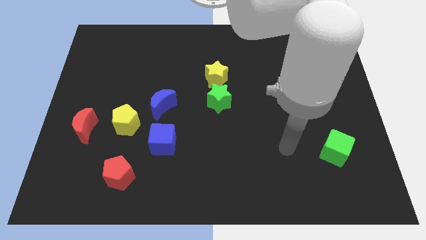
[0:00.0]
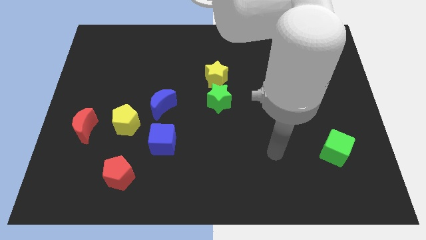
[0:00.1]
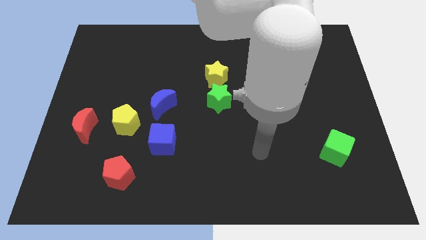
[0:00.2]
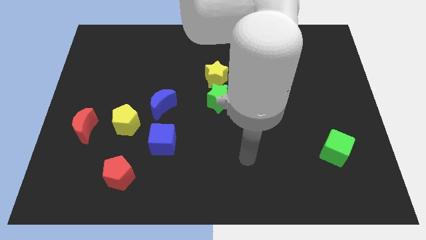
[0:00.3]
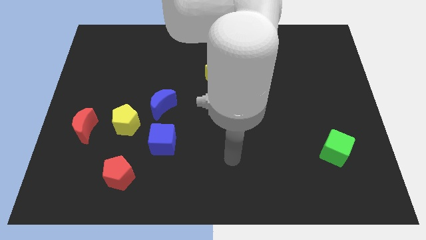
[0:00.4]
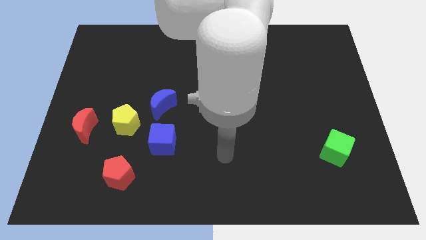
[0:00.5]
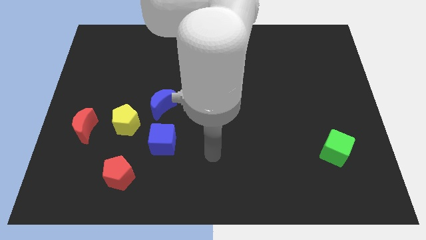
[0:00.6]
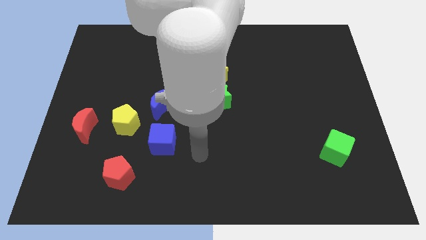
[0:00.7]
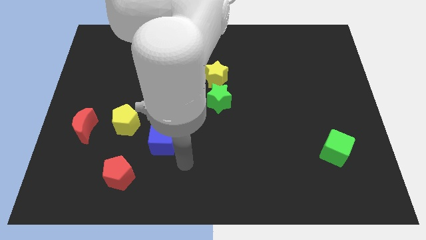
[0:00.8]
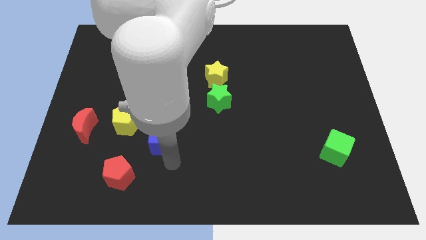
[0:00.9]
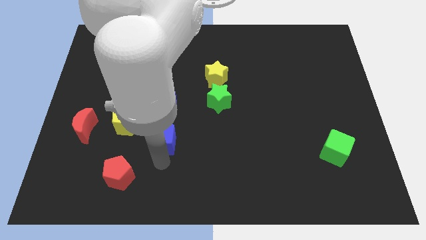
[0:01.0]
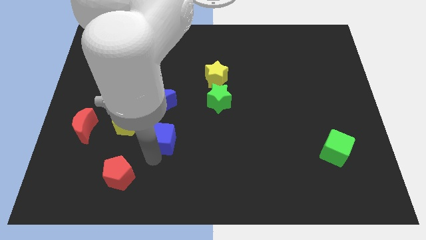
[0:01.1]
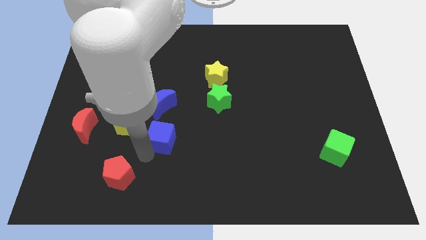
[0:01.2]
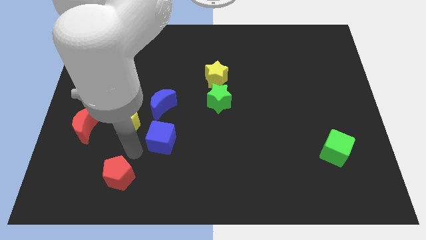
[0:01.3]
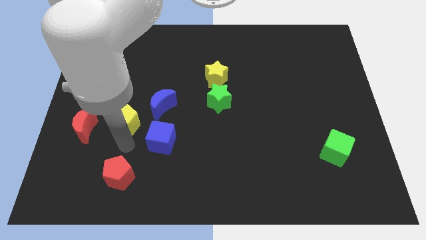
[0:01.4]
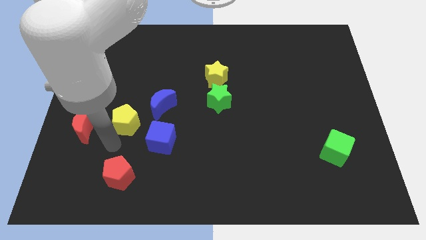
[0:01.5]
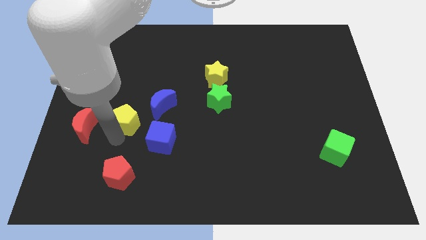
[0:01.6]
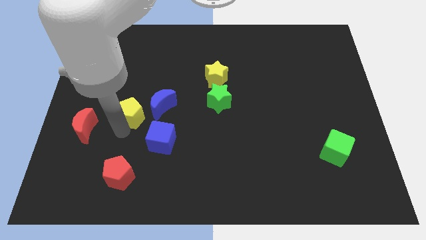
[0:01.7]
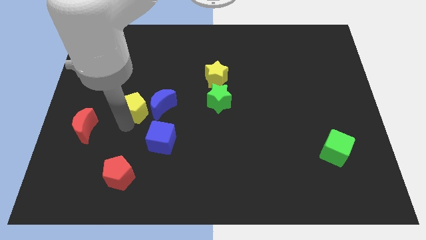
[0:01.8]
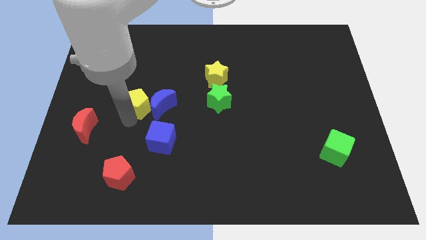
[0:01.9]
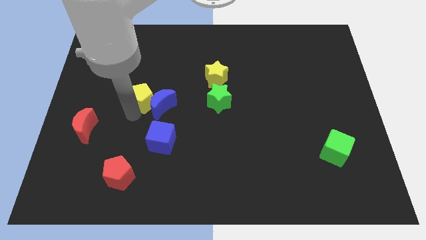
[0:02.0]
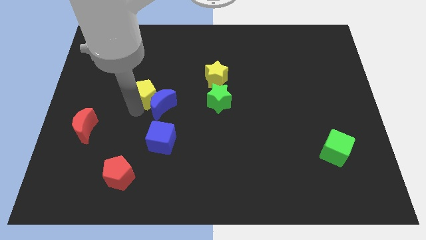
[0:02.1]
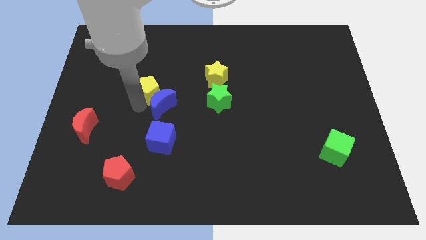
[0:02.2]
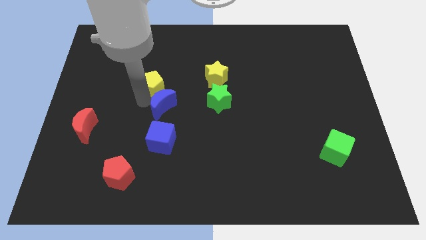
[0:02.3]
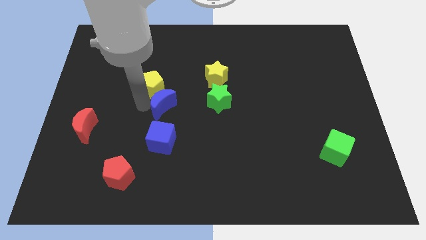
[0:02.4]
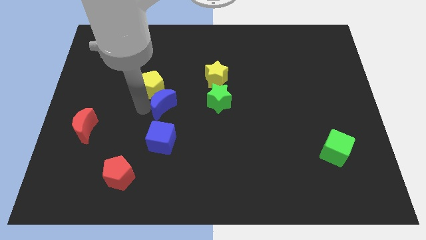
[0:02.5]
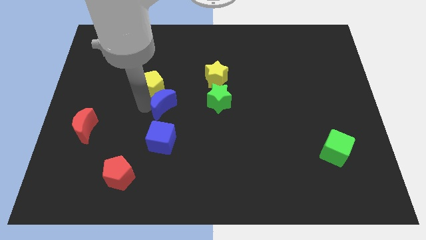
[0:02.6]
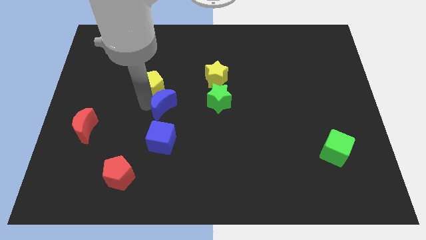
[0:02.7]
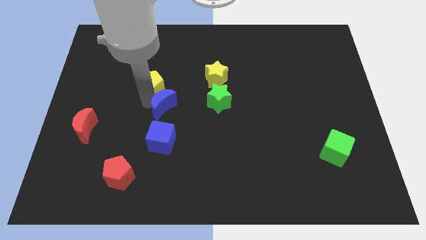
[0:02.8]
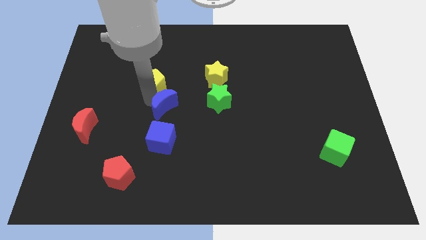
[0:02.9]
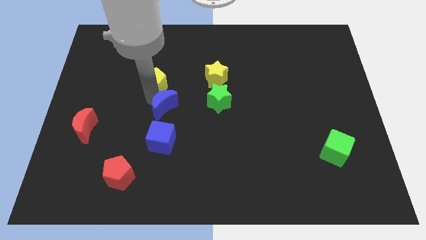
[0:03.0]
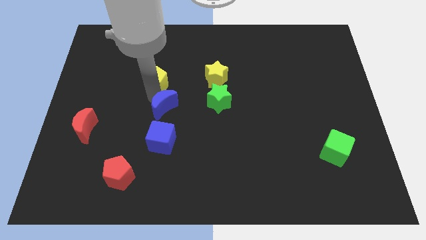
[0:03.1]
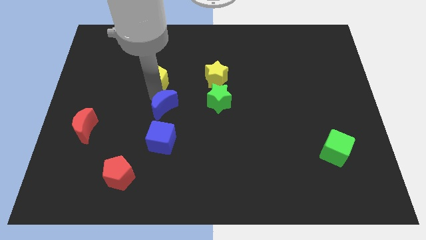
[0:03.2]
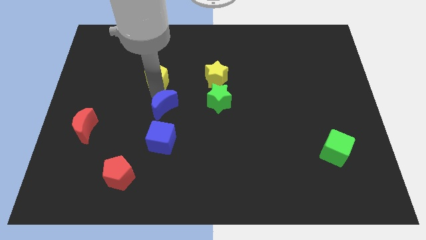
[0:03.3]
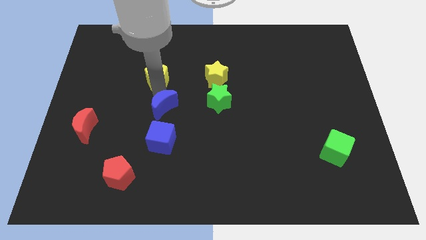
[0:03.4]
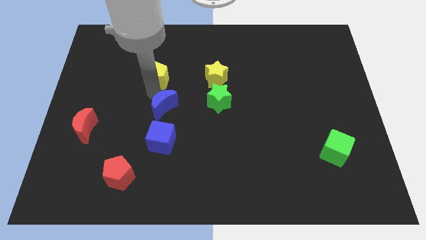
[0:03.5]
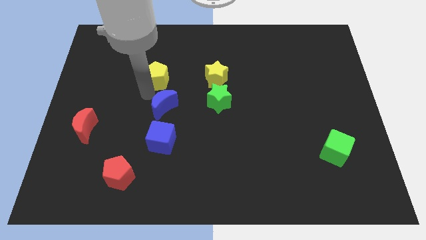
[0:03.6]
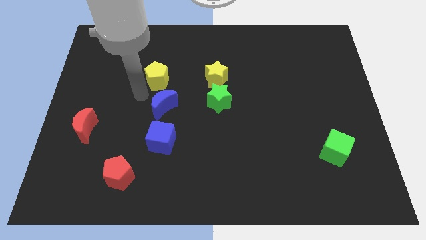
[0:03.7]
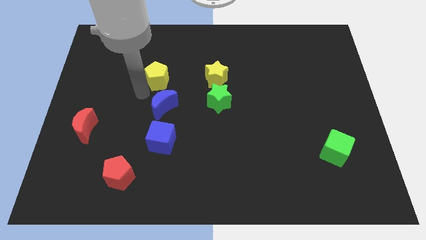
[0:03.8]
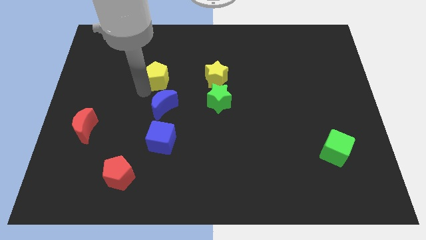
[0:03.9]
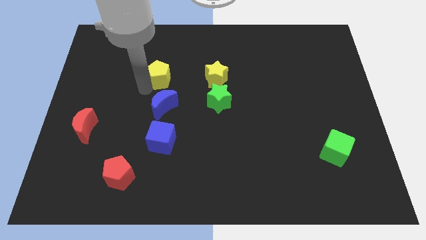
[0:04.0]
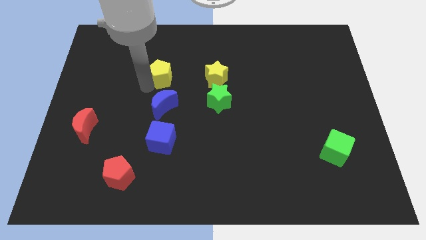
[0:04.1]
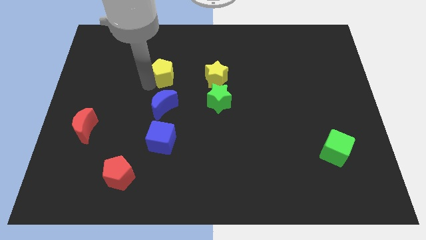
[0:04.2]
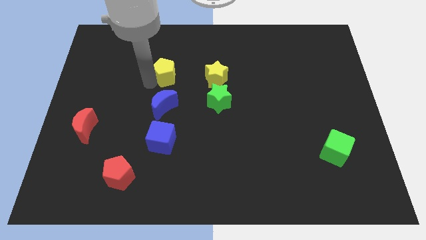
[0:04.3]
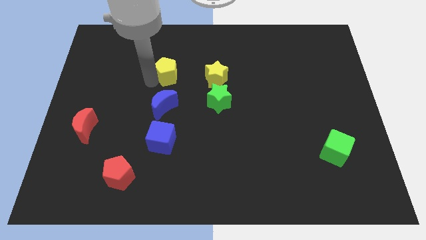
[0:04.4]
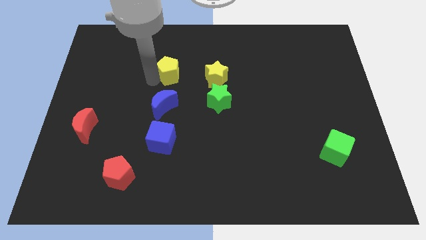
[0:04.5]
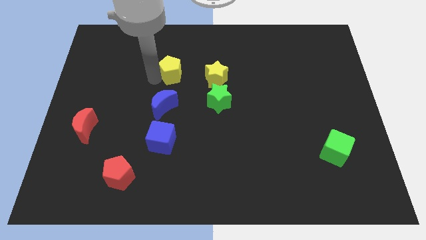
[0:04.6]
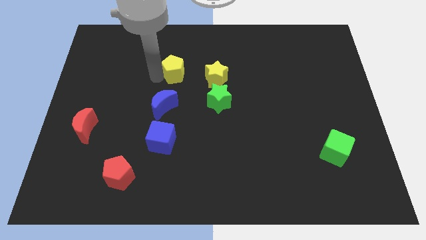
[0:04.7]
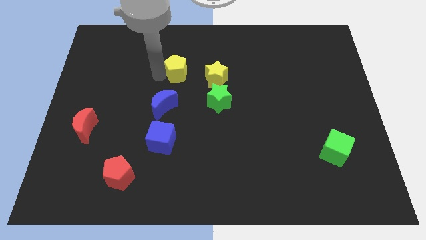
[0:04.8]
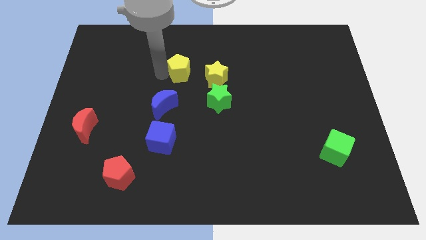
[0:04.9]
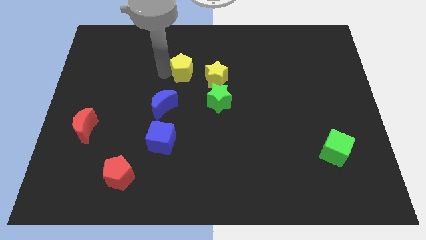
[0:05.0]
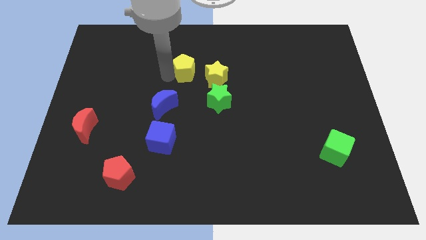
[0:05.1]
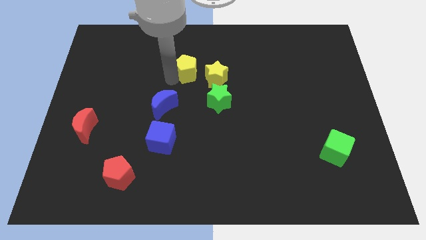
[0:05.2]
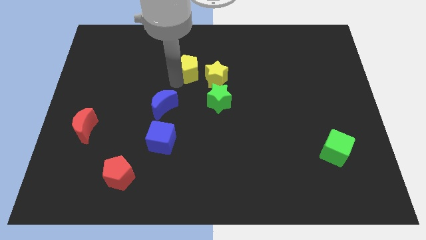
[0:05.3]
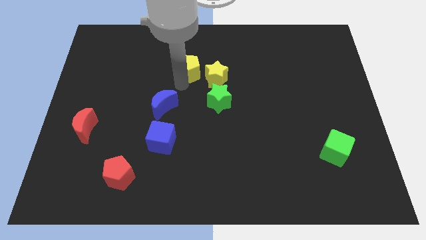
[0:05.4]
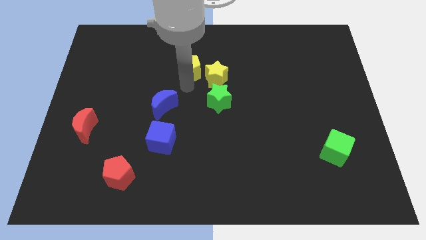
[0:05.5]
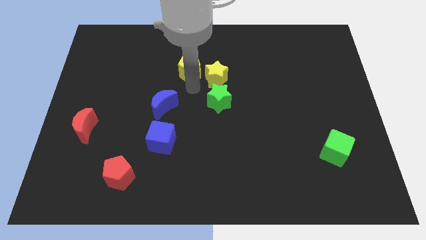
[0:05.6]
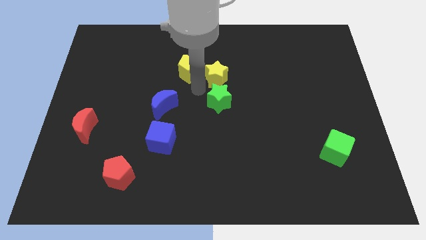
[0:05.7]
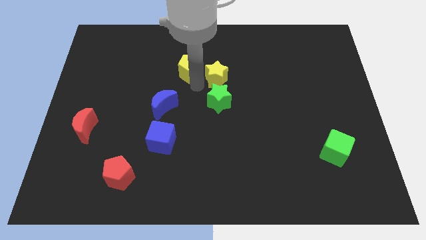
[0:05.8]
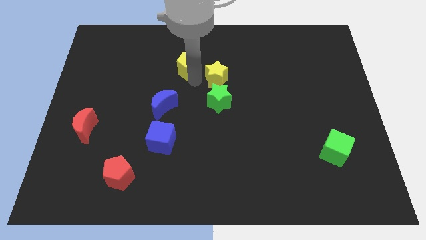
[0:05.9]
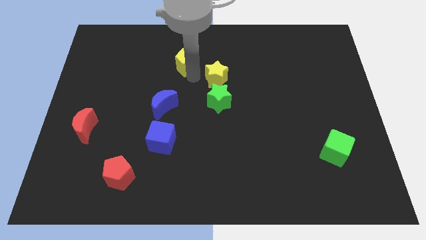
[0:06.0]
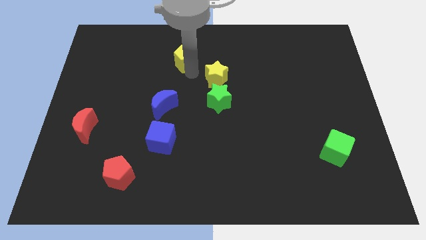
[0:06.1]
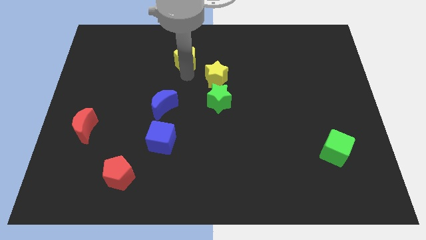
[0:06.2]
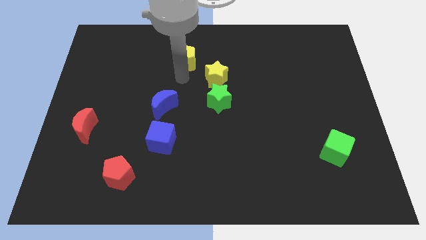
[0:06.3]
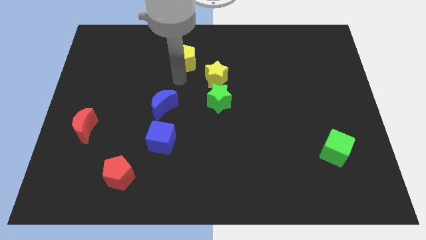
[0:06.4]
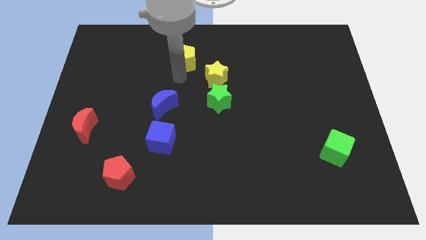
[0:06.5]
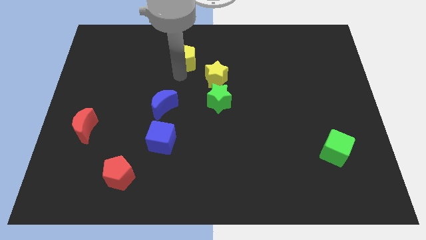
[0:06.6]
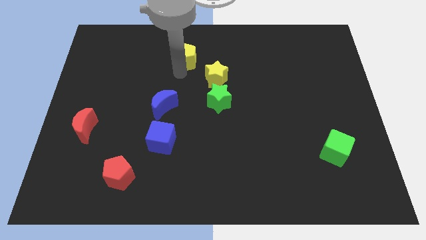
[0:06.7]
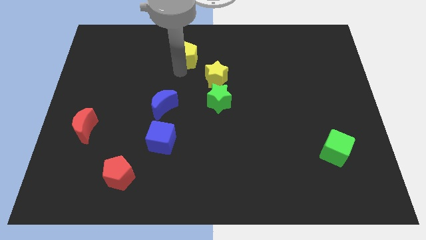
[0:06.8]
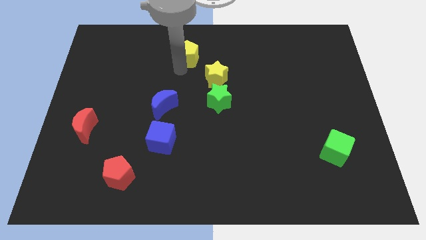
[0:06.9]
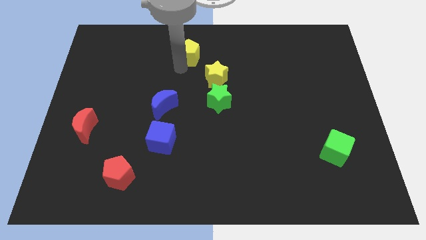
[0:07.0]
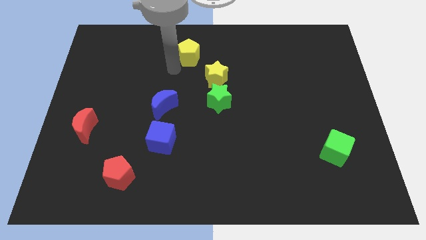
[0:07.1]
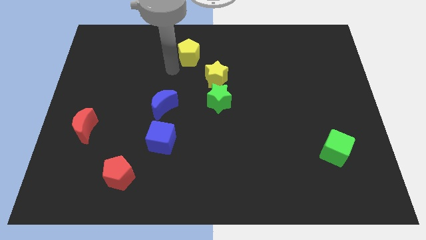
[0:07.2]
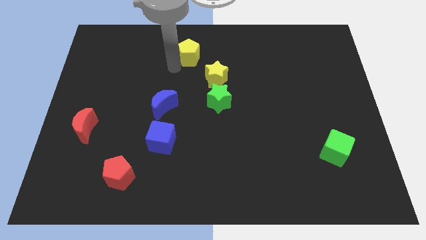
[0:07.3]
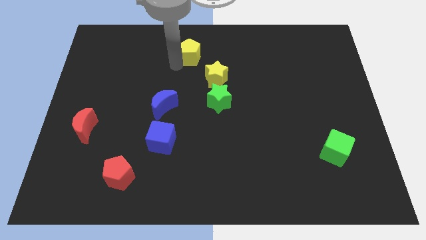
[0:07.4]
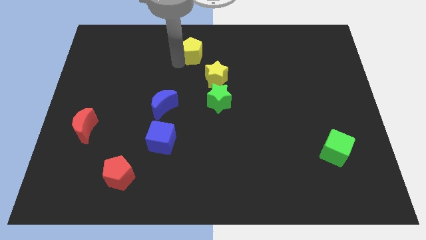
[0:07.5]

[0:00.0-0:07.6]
push the yellow pentagon to the top
